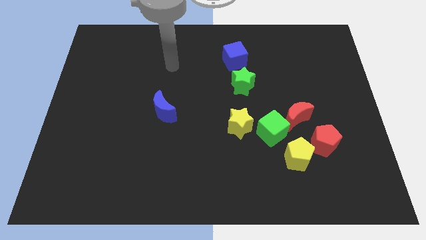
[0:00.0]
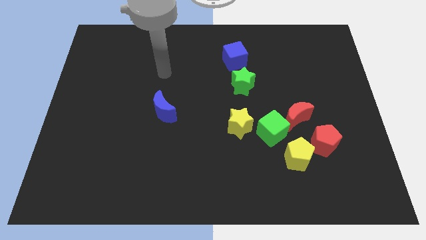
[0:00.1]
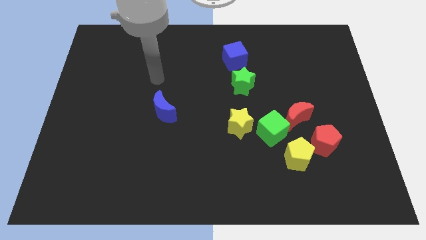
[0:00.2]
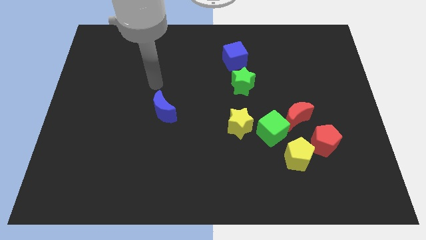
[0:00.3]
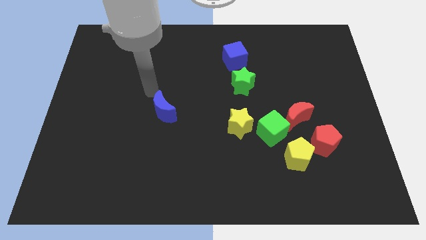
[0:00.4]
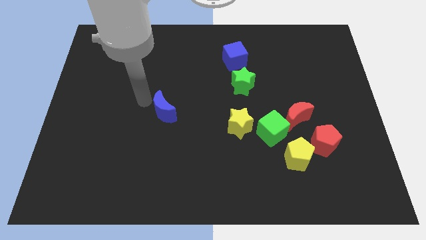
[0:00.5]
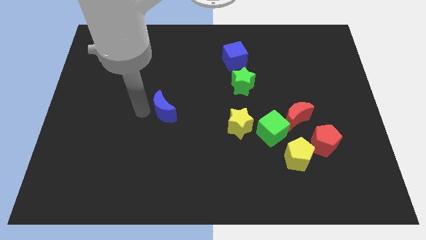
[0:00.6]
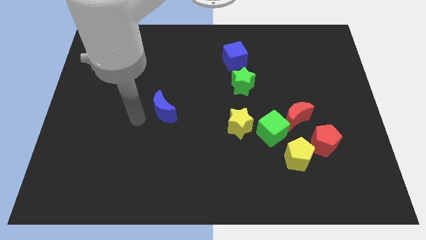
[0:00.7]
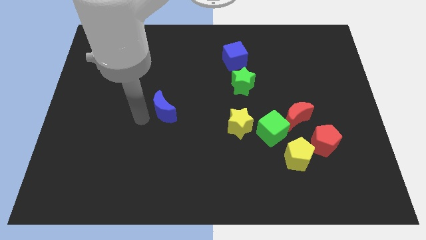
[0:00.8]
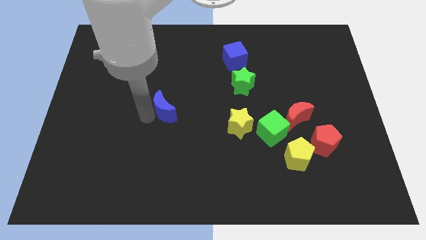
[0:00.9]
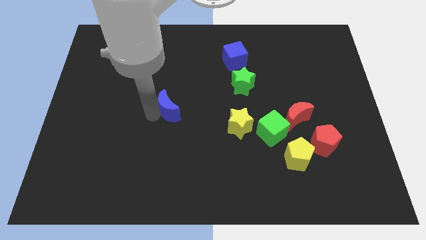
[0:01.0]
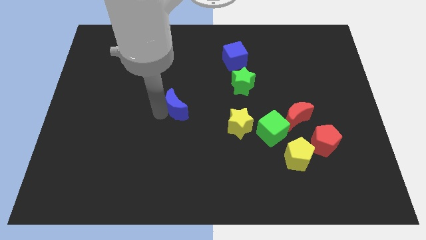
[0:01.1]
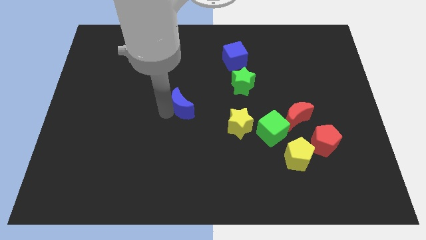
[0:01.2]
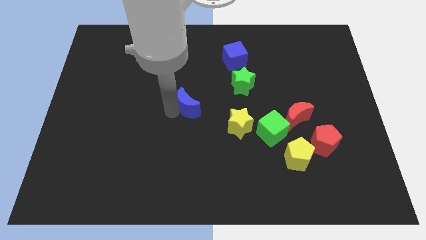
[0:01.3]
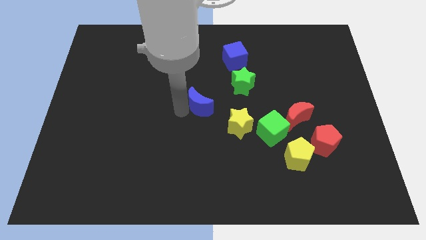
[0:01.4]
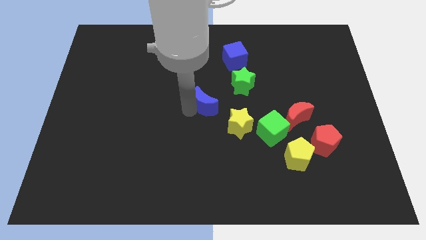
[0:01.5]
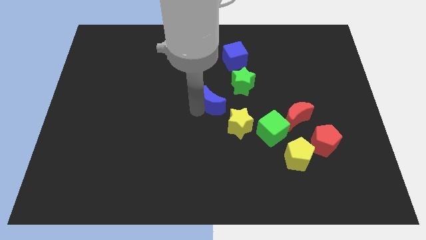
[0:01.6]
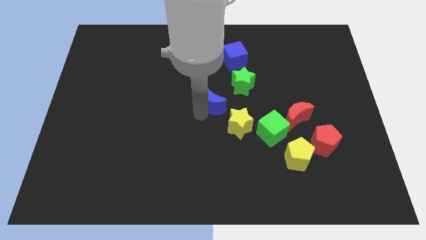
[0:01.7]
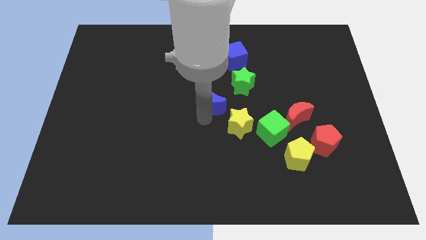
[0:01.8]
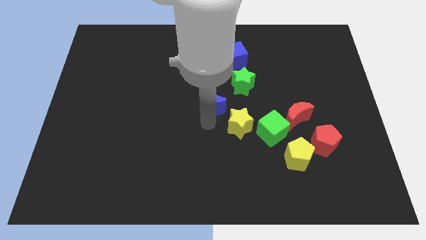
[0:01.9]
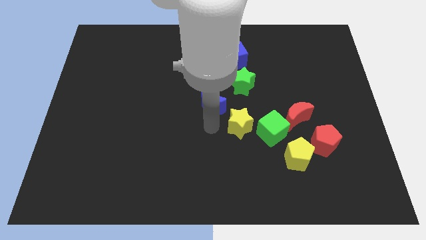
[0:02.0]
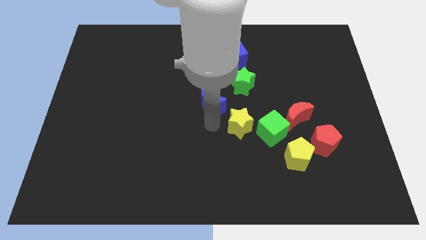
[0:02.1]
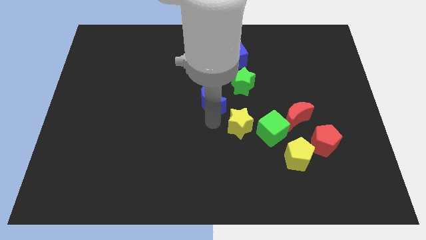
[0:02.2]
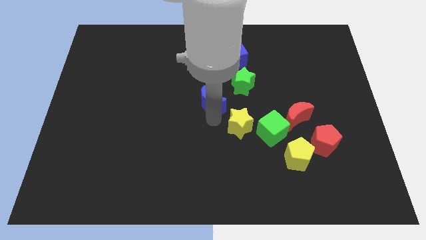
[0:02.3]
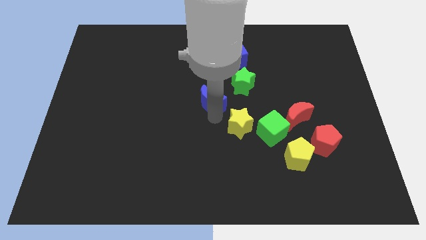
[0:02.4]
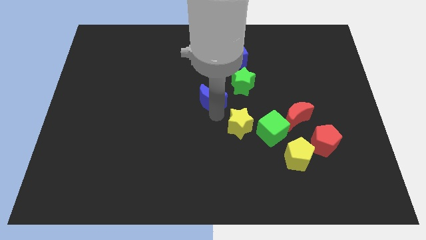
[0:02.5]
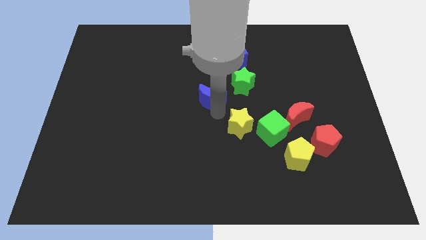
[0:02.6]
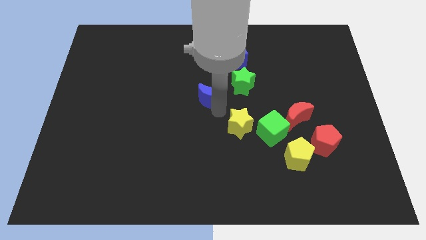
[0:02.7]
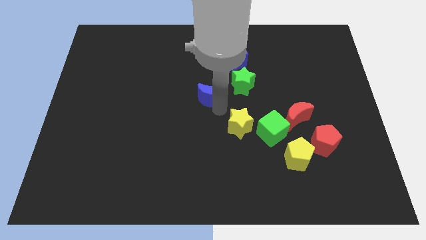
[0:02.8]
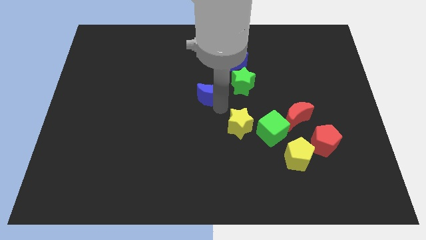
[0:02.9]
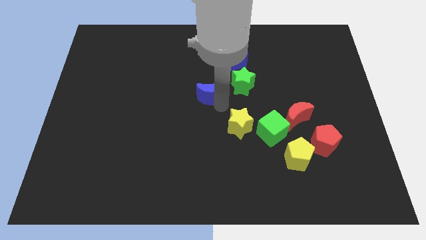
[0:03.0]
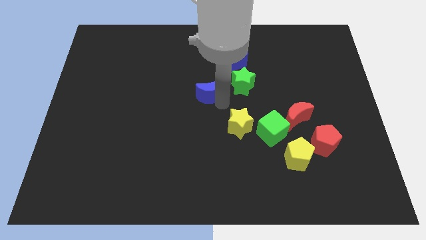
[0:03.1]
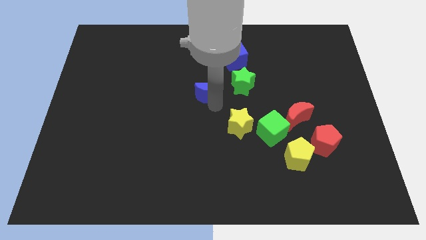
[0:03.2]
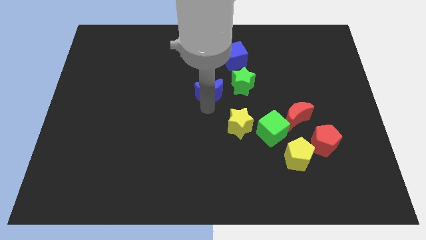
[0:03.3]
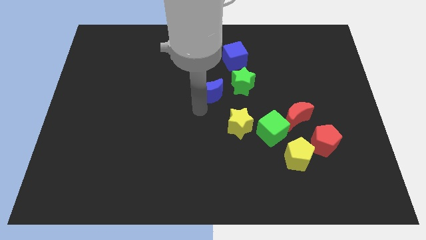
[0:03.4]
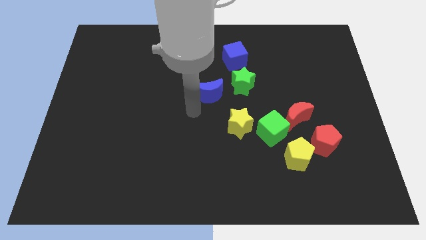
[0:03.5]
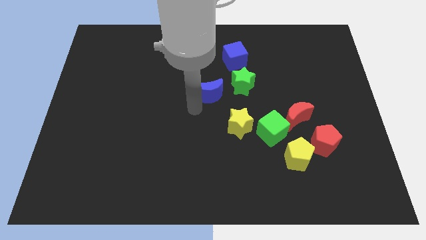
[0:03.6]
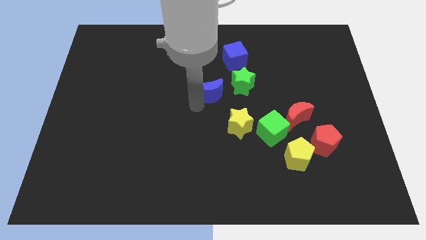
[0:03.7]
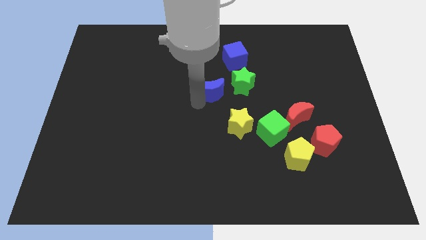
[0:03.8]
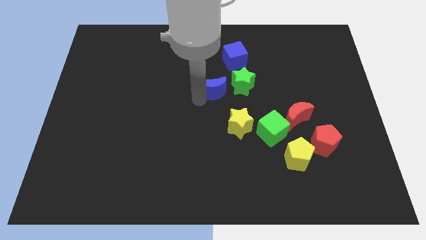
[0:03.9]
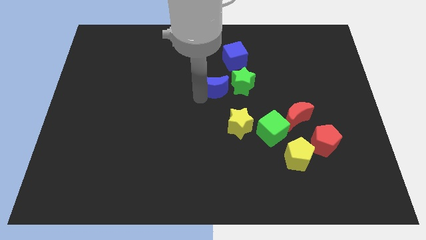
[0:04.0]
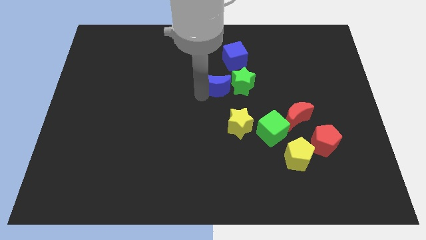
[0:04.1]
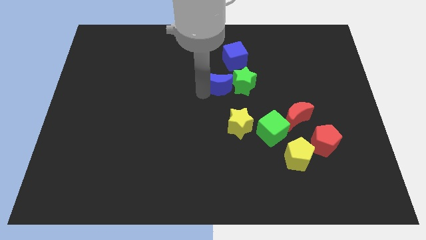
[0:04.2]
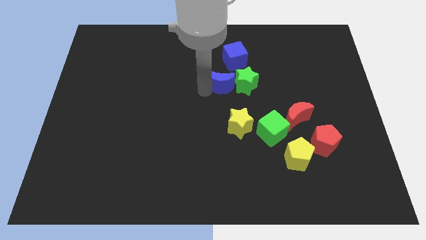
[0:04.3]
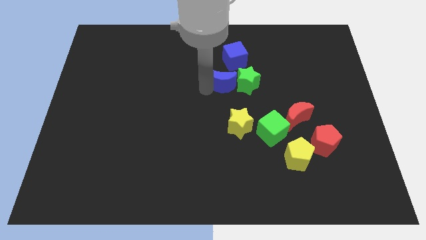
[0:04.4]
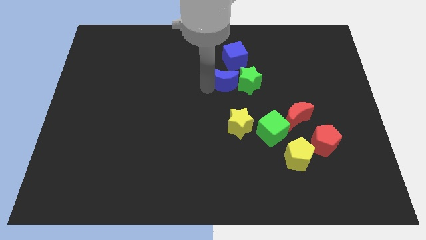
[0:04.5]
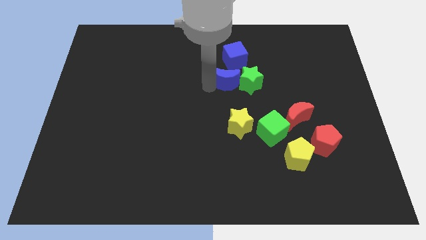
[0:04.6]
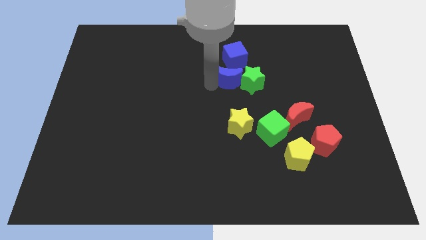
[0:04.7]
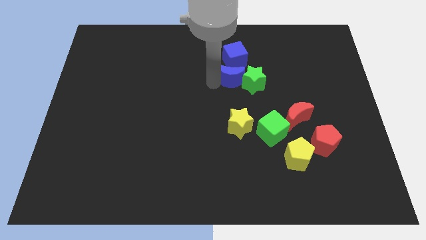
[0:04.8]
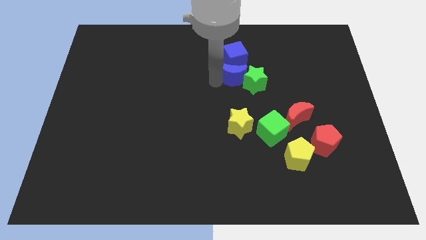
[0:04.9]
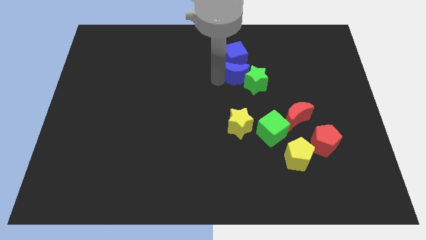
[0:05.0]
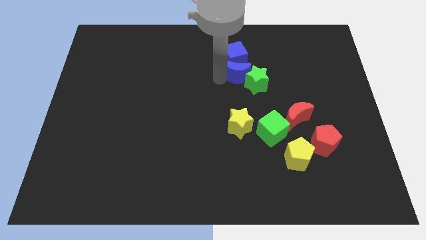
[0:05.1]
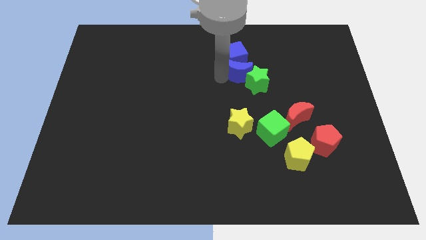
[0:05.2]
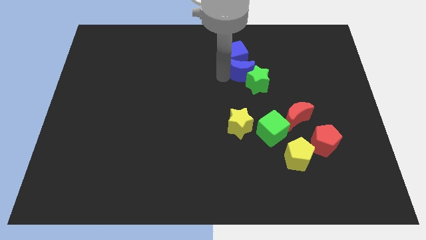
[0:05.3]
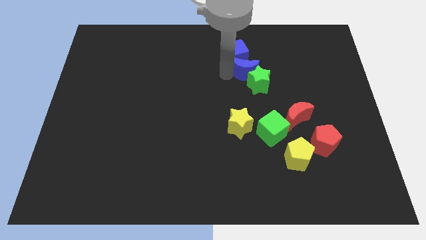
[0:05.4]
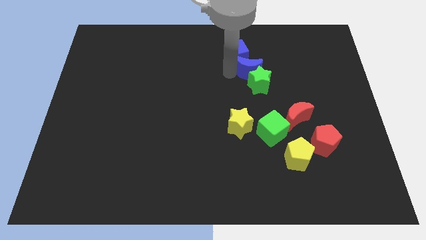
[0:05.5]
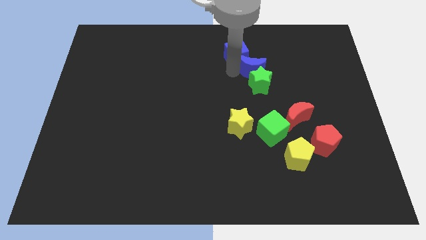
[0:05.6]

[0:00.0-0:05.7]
move the blue moon right of the blue cube

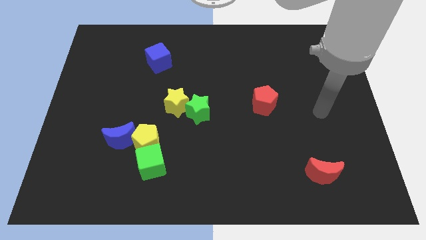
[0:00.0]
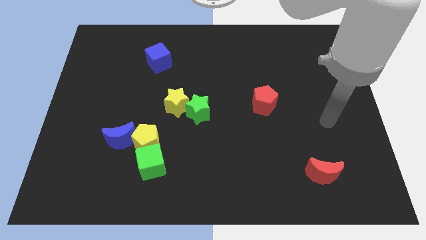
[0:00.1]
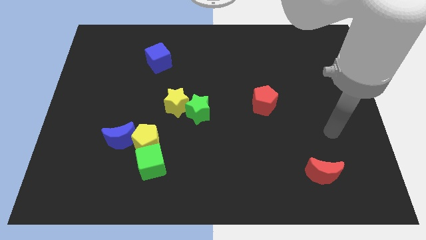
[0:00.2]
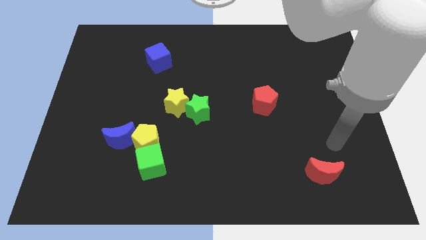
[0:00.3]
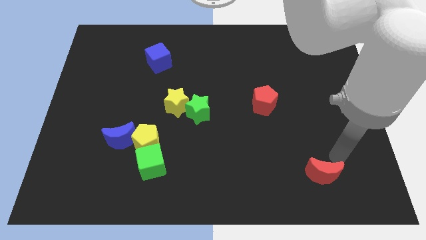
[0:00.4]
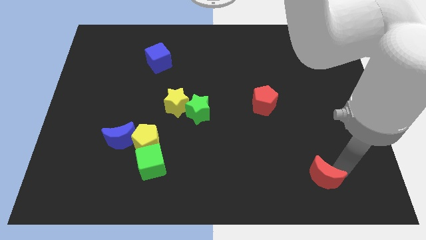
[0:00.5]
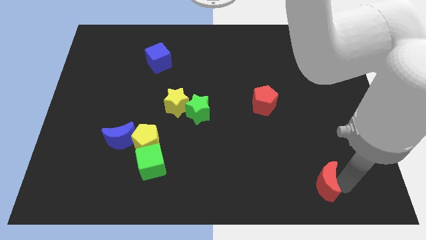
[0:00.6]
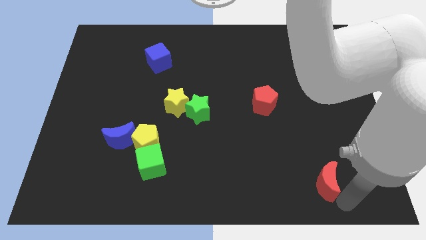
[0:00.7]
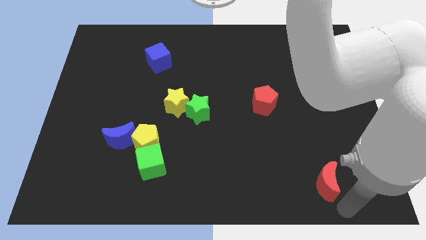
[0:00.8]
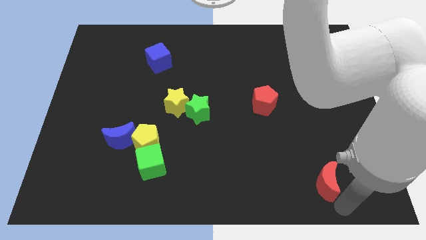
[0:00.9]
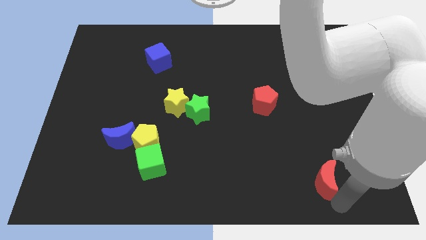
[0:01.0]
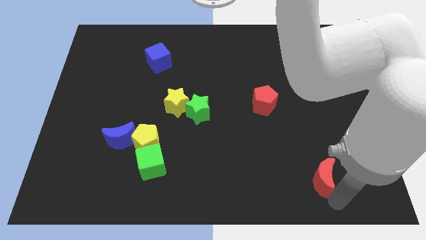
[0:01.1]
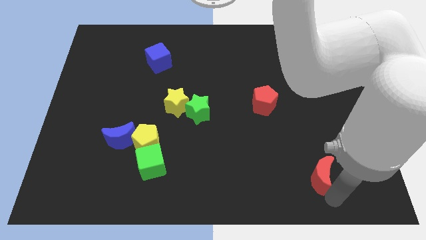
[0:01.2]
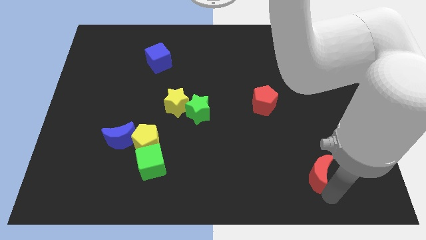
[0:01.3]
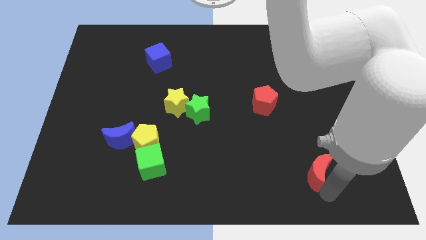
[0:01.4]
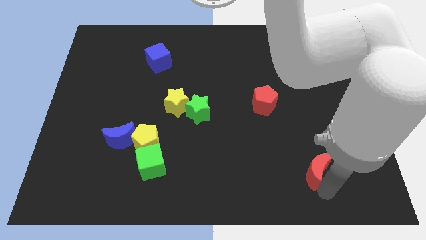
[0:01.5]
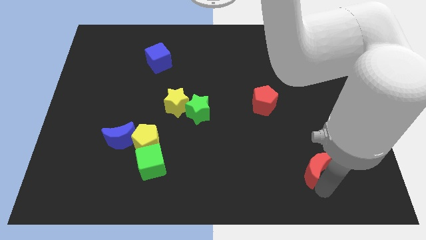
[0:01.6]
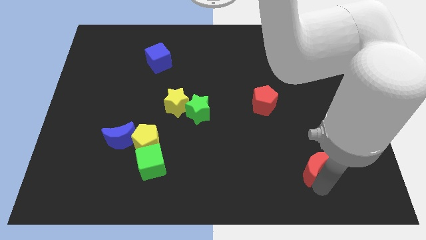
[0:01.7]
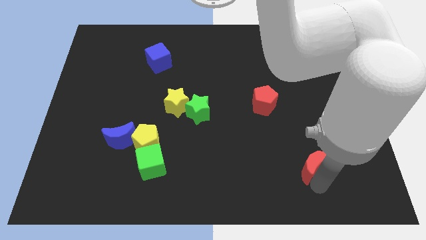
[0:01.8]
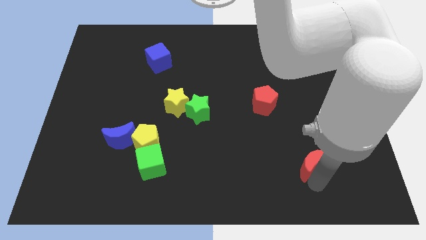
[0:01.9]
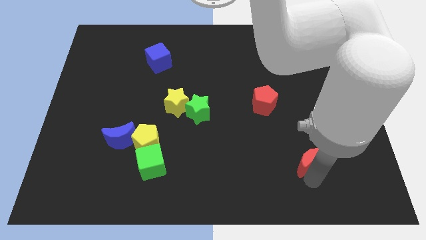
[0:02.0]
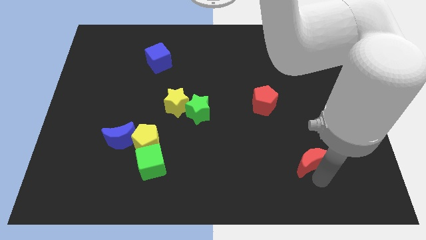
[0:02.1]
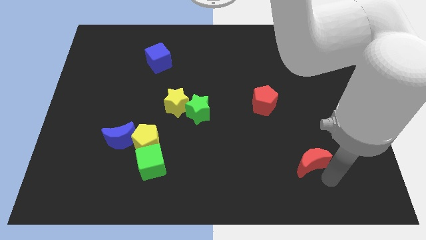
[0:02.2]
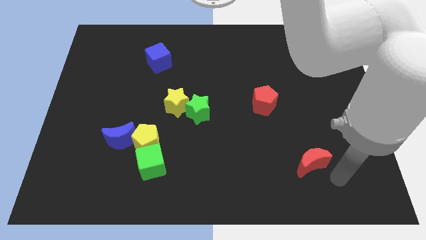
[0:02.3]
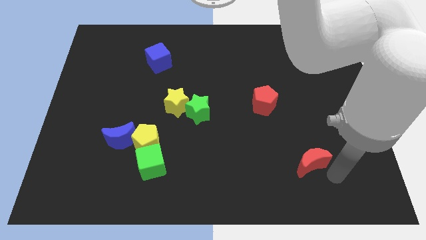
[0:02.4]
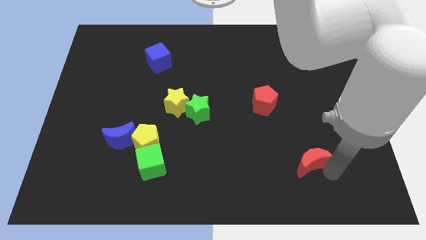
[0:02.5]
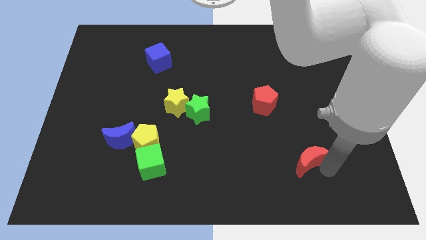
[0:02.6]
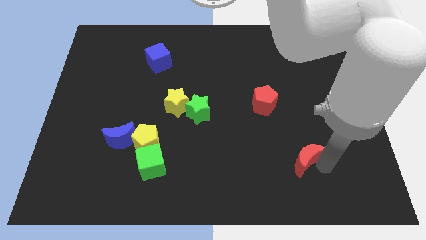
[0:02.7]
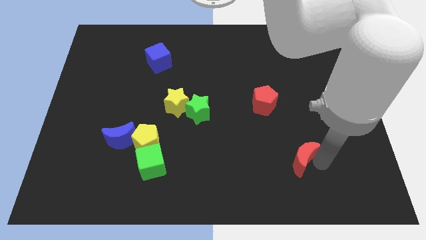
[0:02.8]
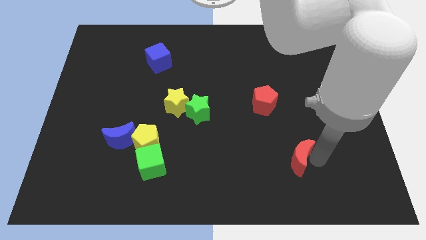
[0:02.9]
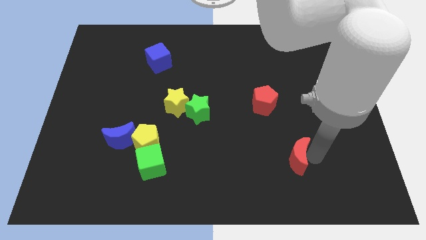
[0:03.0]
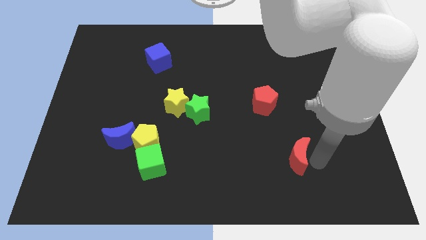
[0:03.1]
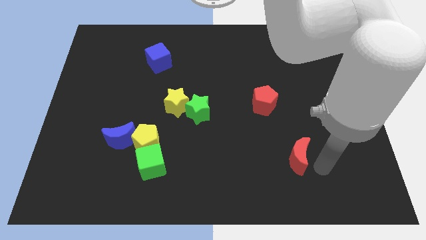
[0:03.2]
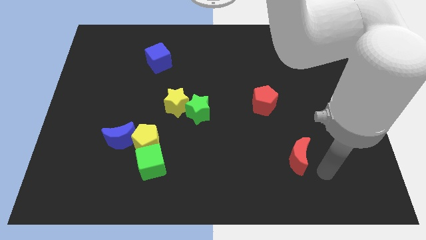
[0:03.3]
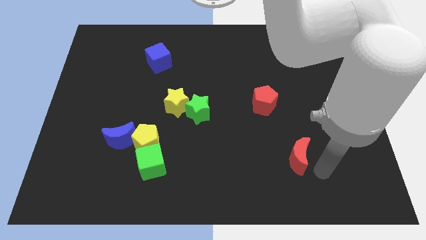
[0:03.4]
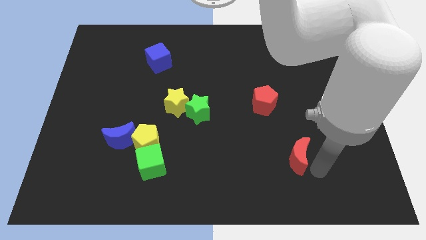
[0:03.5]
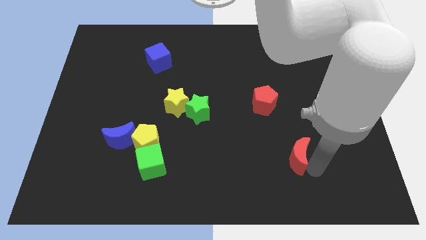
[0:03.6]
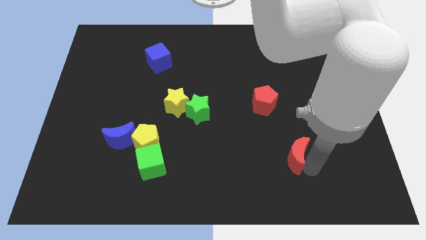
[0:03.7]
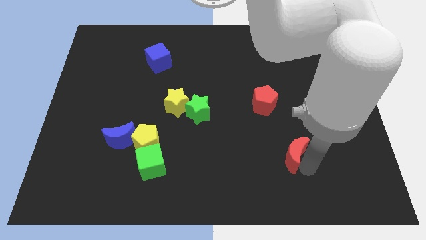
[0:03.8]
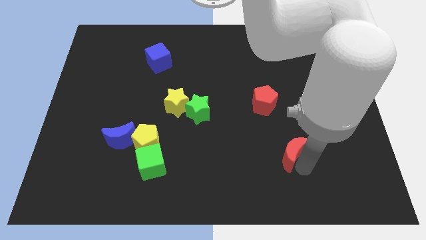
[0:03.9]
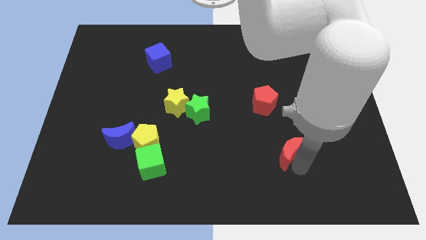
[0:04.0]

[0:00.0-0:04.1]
move the red moon to the bottom of the red pentagon
